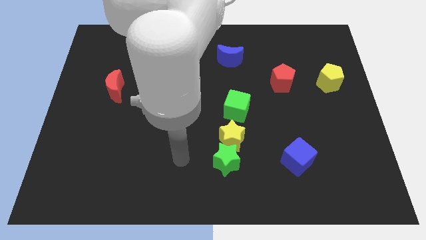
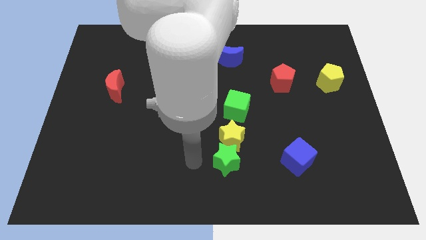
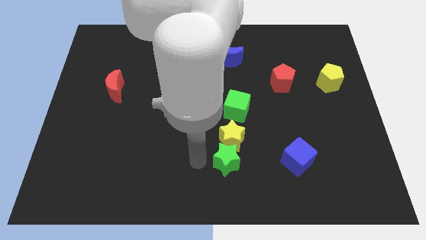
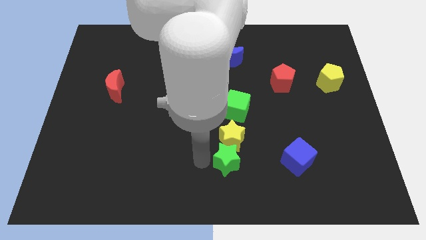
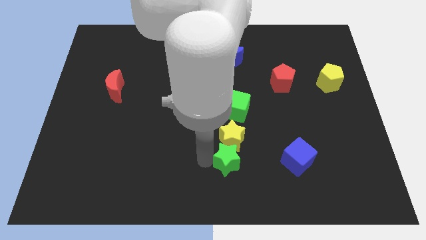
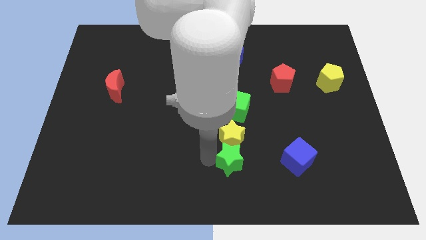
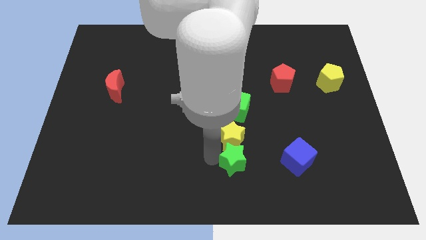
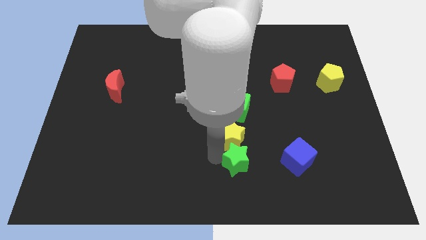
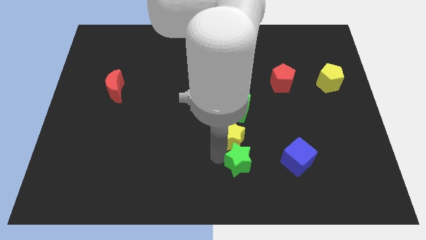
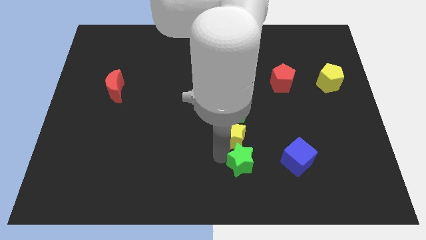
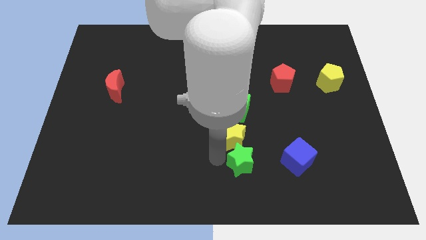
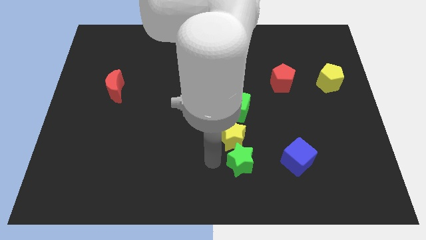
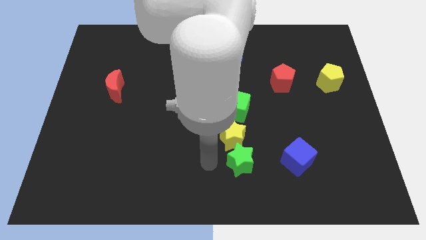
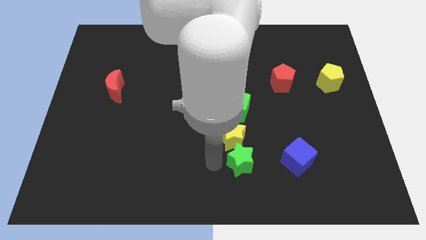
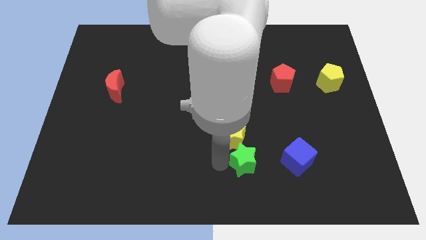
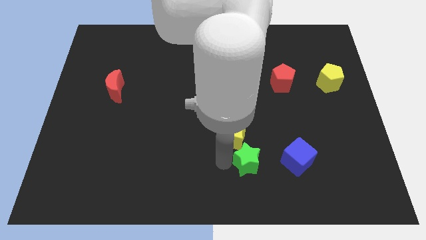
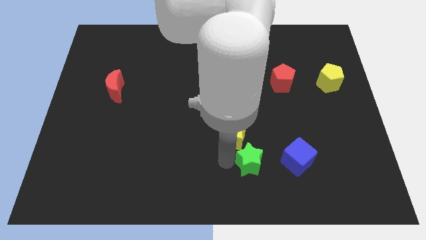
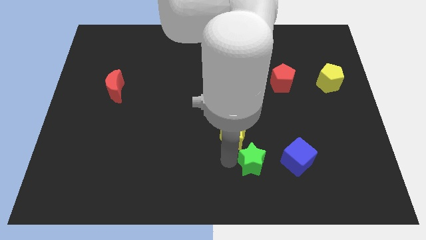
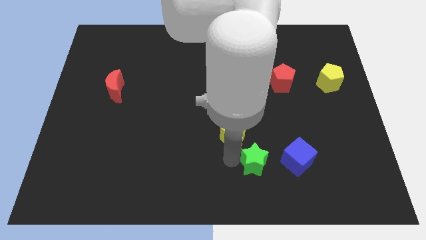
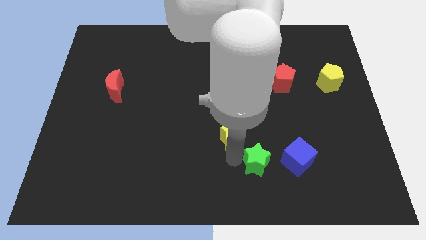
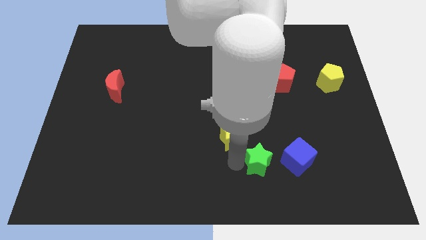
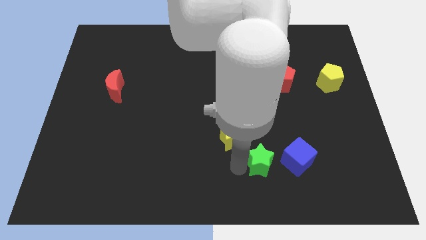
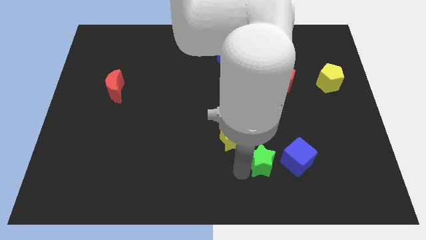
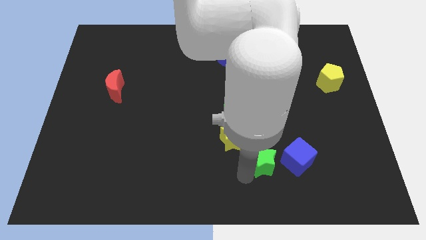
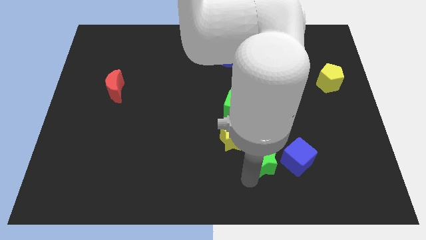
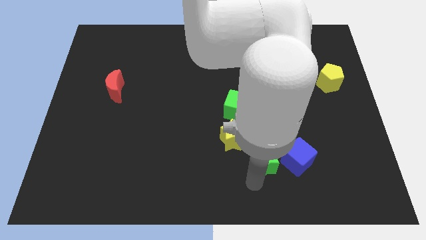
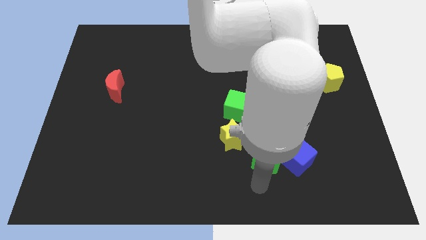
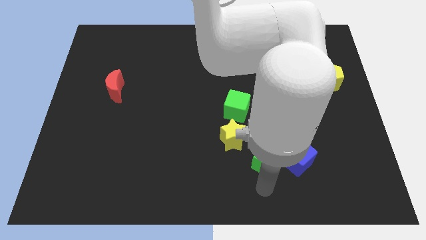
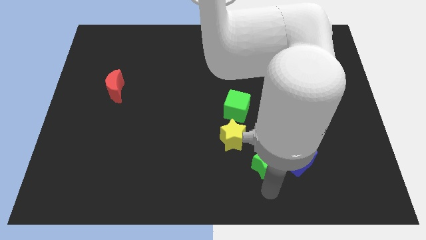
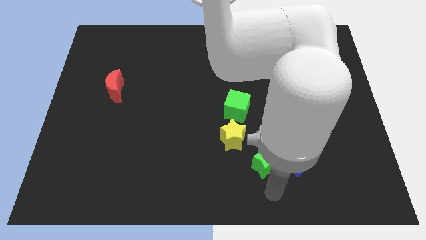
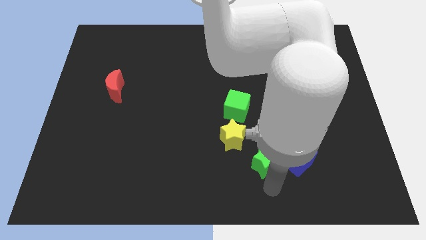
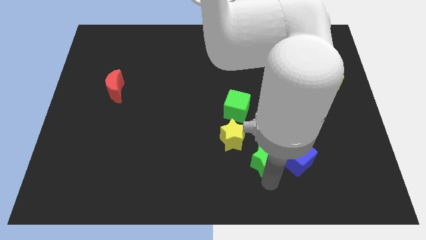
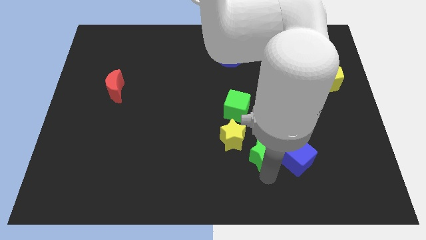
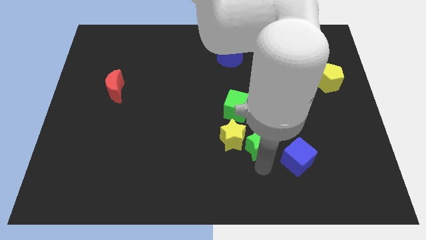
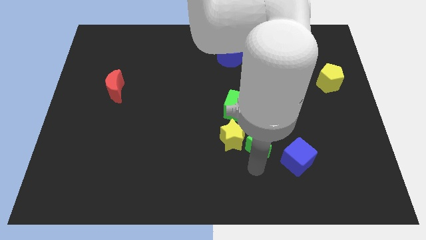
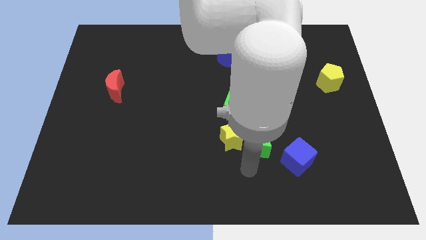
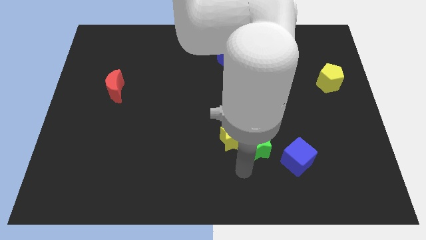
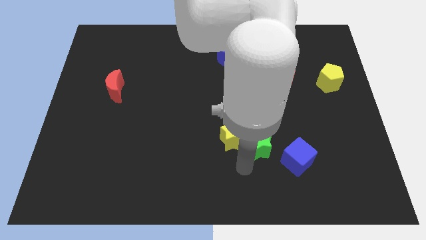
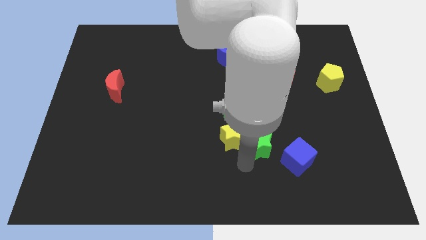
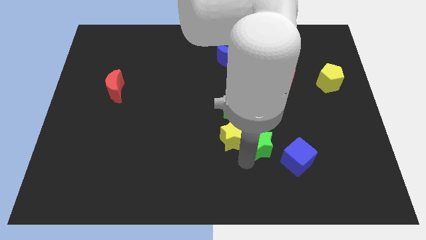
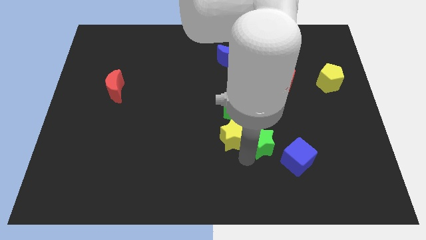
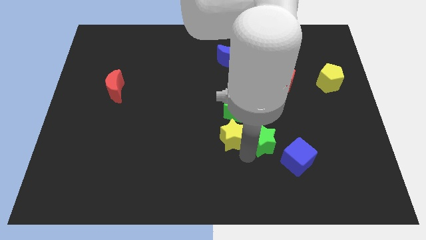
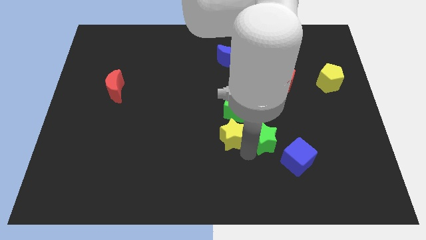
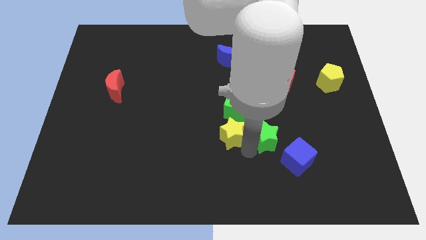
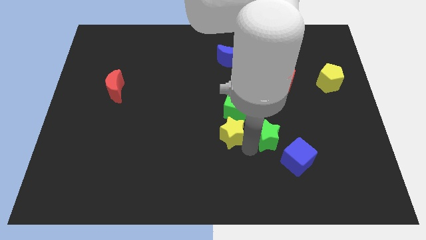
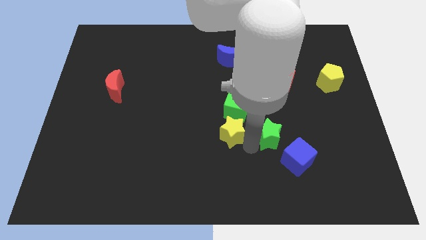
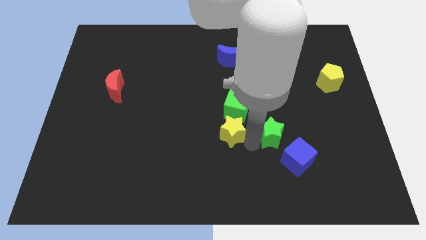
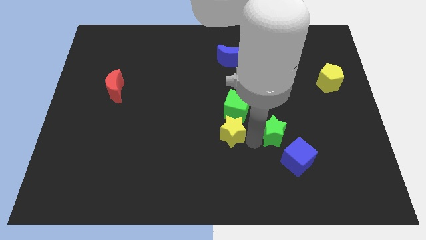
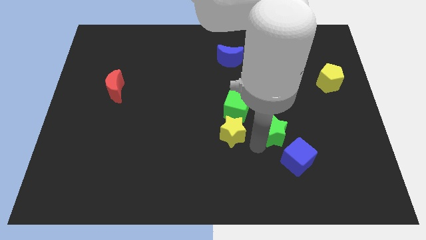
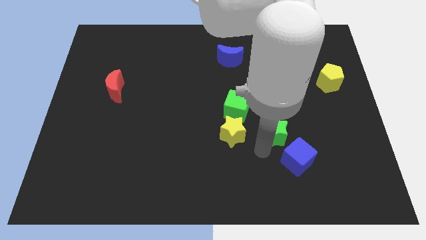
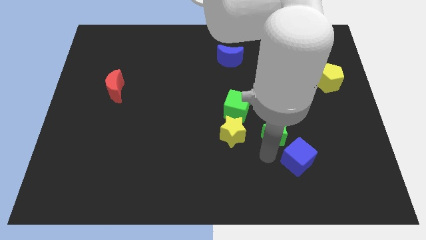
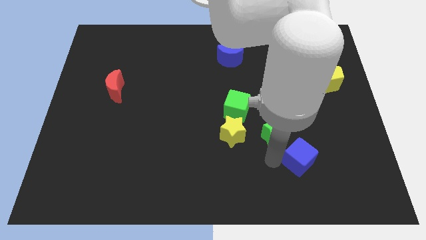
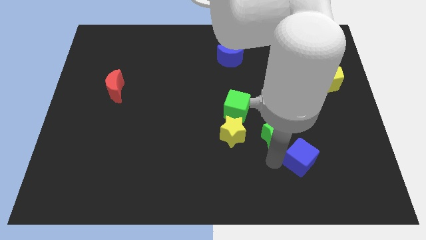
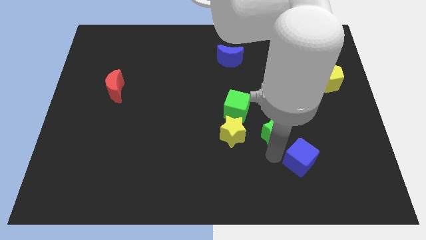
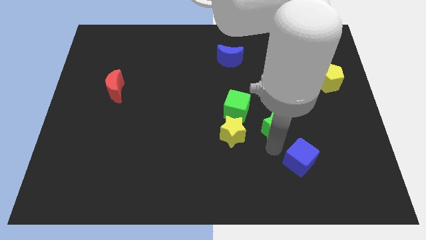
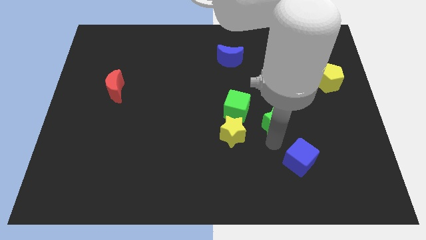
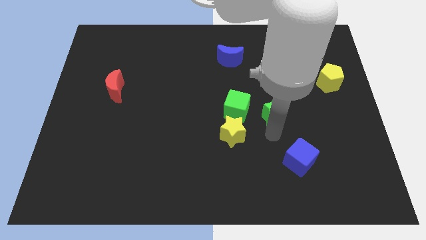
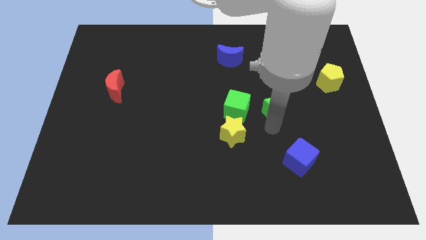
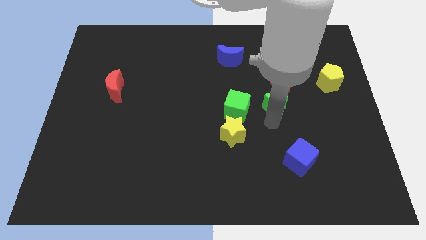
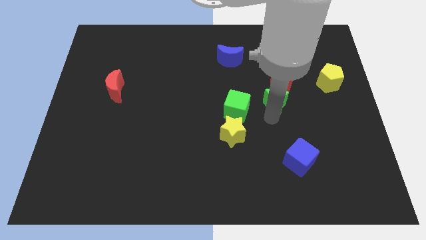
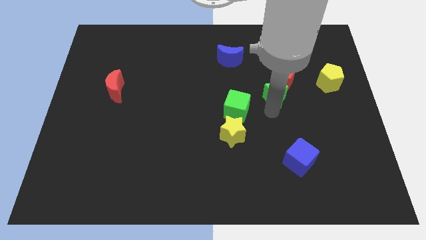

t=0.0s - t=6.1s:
put the green star close to the red pentagon

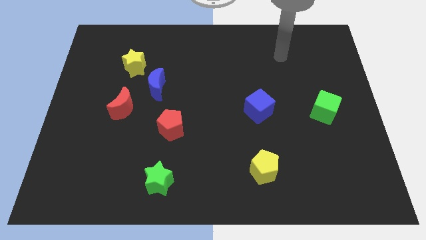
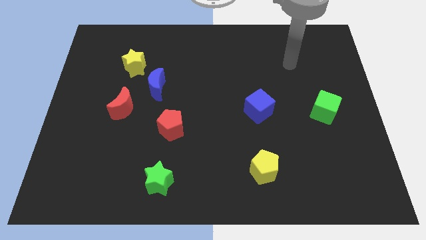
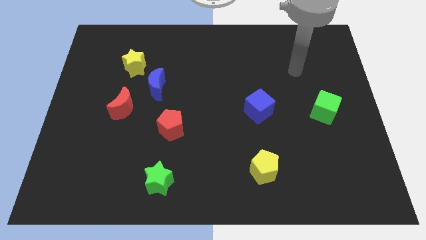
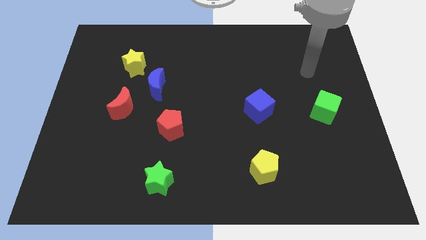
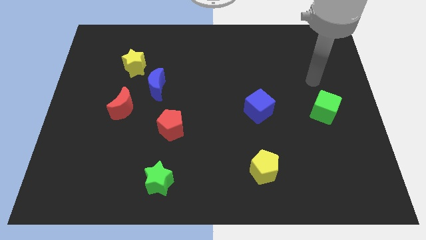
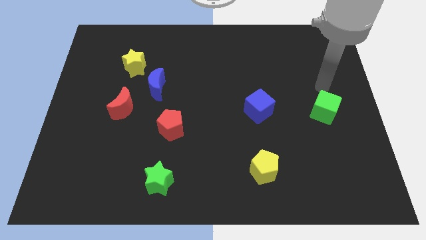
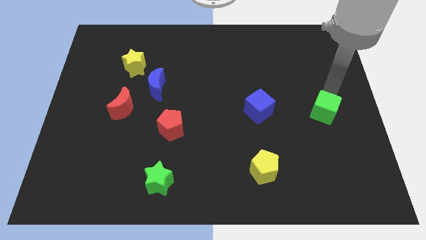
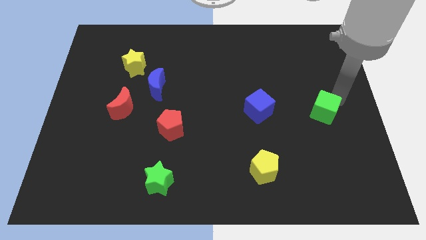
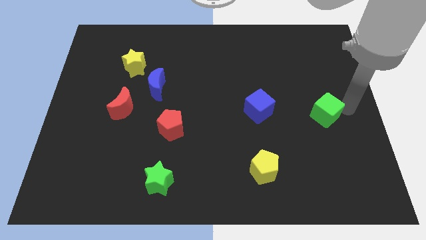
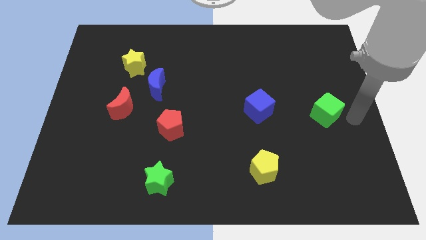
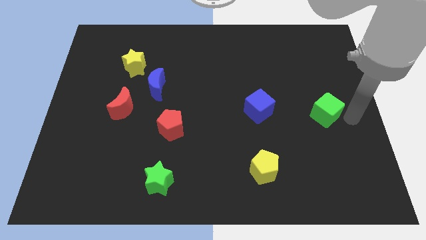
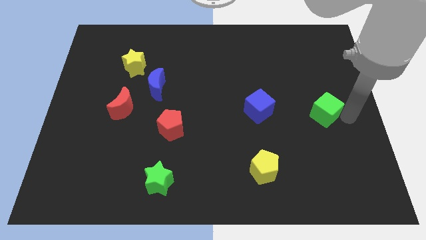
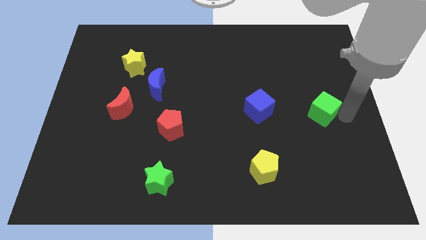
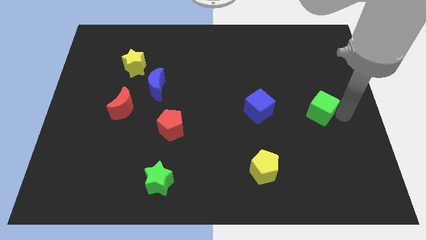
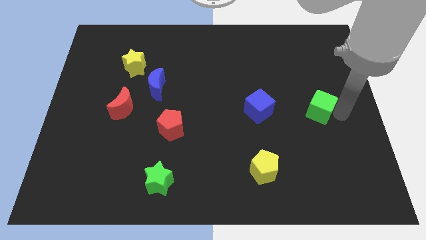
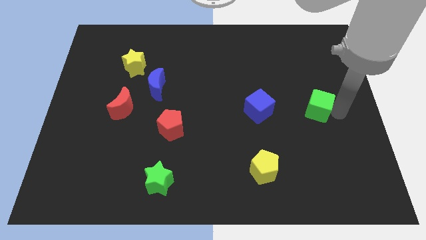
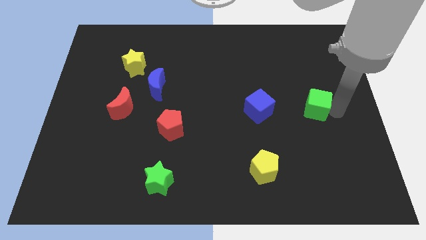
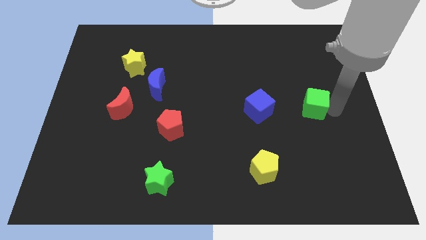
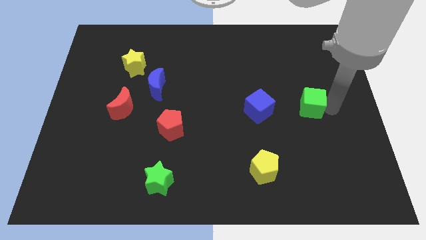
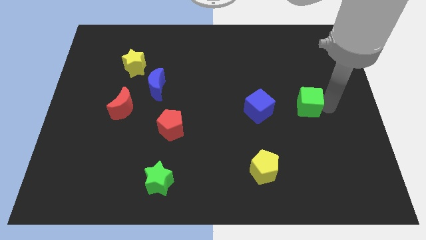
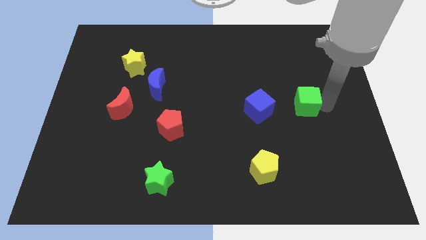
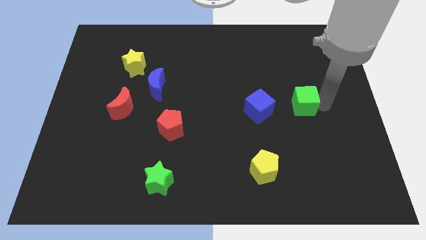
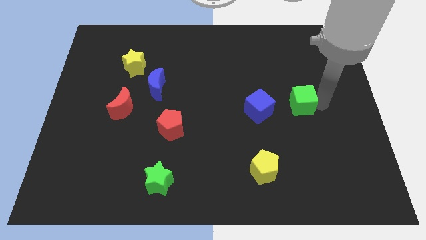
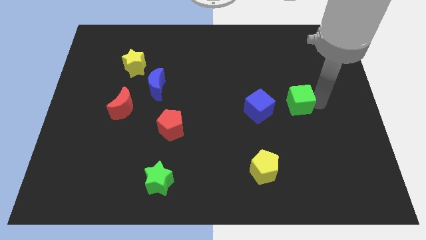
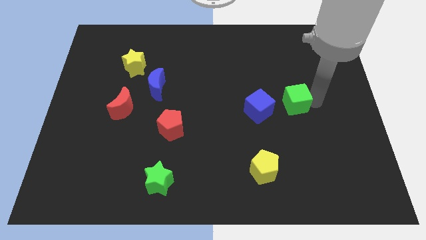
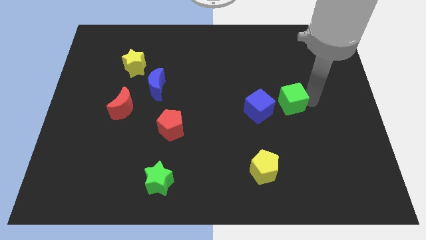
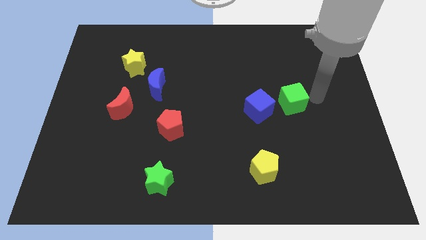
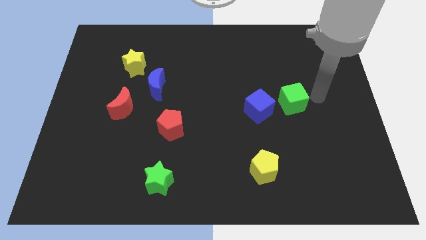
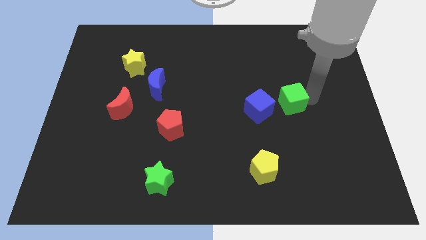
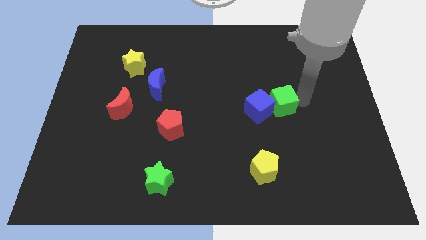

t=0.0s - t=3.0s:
push the green cube to the blue cube
